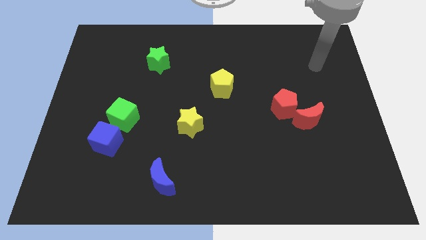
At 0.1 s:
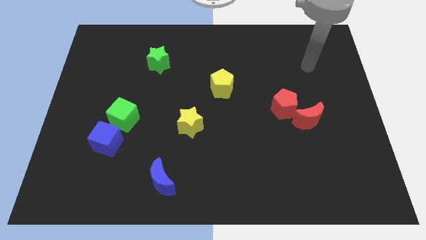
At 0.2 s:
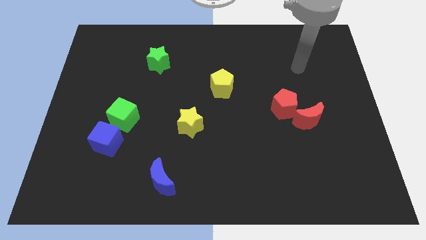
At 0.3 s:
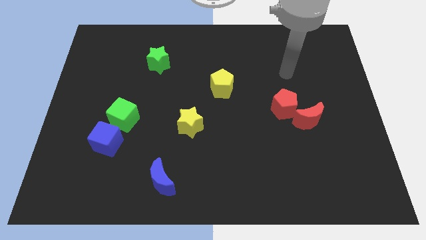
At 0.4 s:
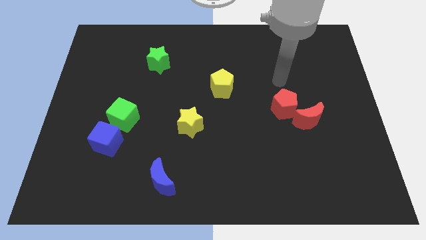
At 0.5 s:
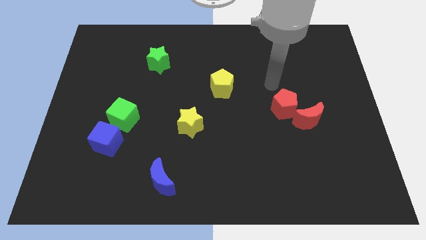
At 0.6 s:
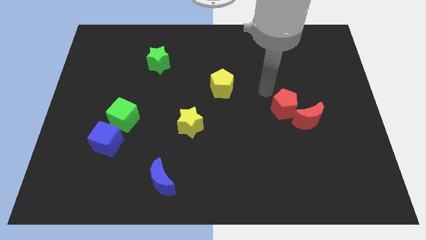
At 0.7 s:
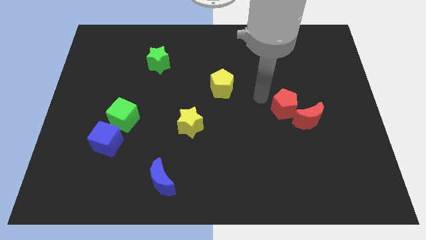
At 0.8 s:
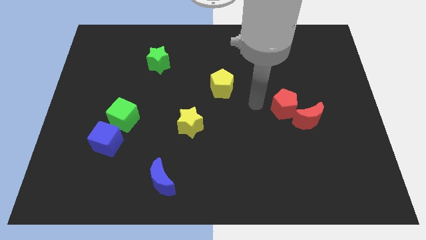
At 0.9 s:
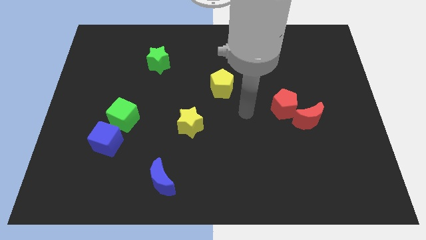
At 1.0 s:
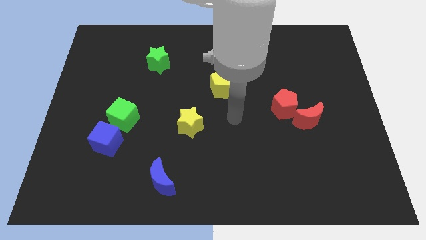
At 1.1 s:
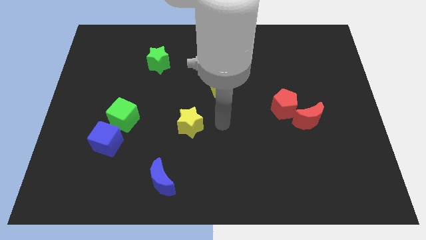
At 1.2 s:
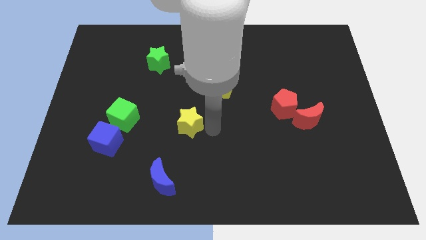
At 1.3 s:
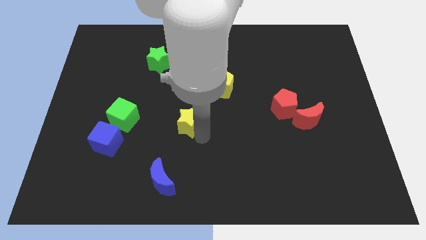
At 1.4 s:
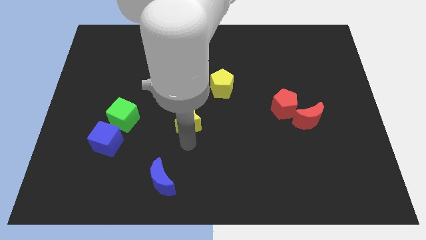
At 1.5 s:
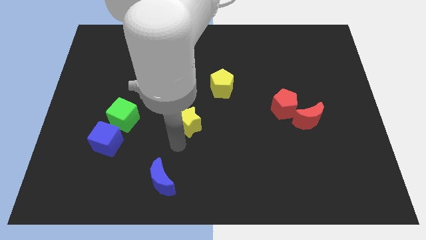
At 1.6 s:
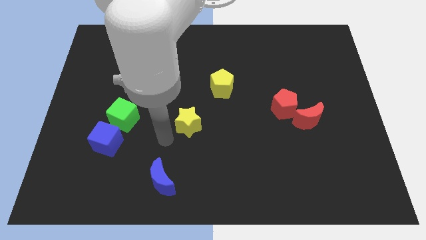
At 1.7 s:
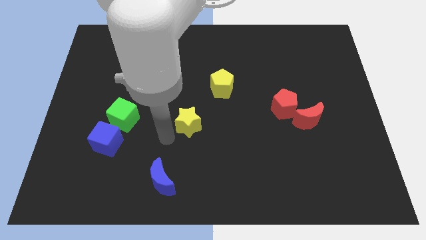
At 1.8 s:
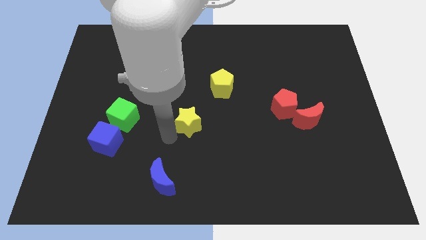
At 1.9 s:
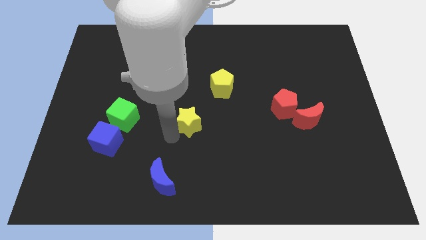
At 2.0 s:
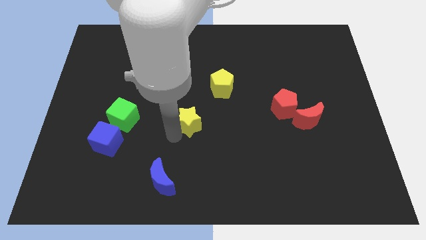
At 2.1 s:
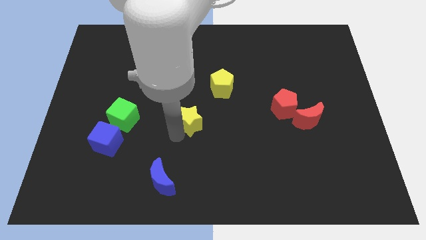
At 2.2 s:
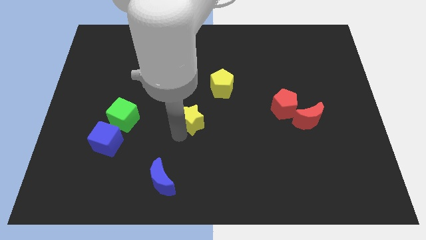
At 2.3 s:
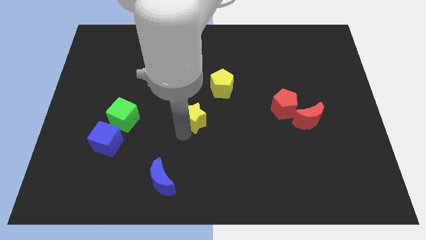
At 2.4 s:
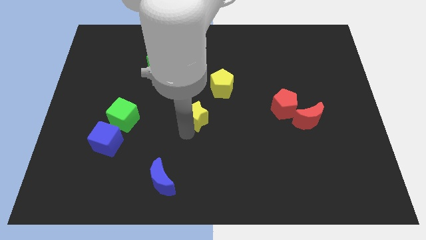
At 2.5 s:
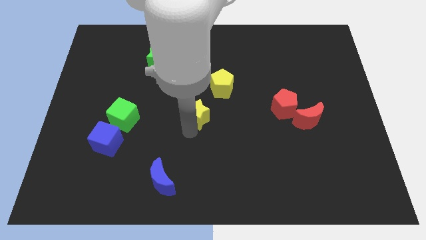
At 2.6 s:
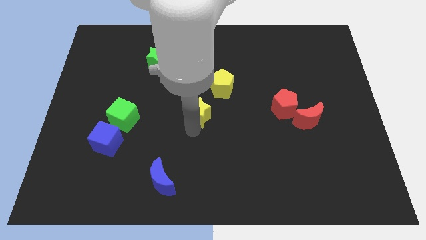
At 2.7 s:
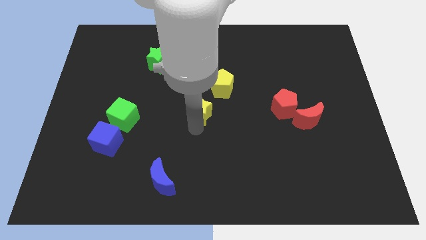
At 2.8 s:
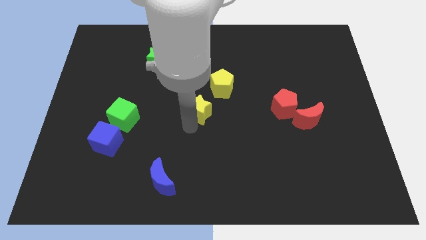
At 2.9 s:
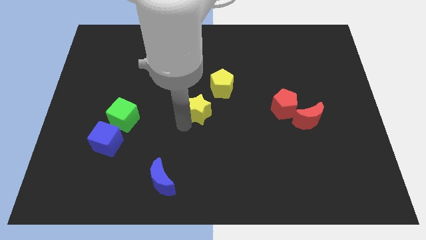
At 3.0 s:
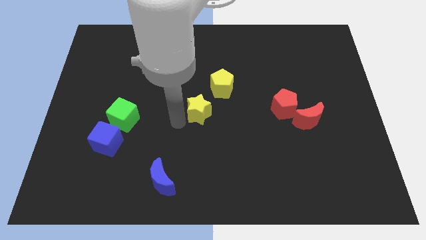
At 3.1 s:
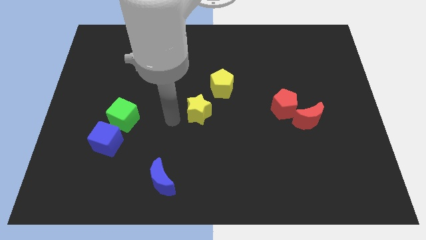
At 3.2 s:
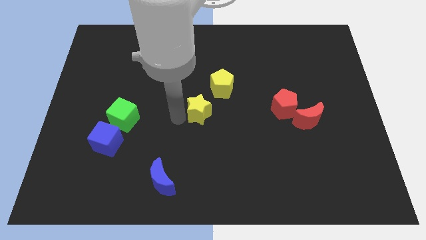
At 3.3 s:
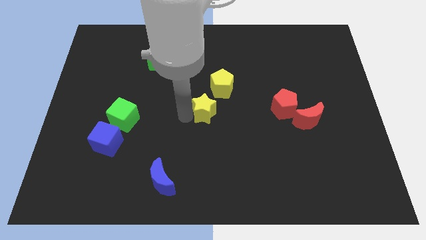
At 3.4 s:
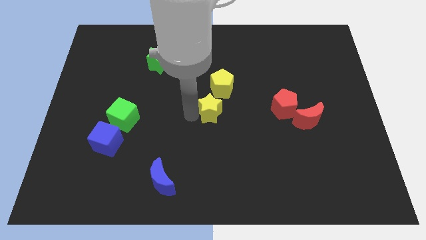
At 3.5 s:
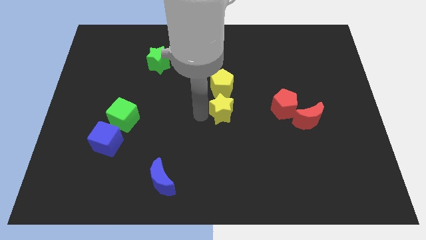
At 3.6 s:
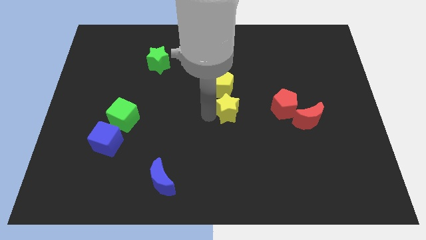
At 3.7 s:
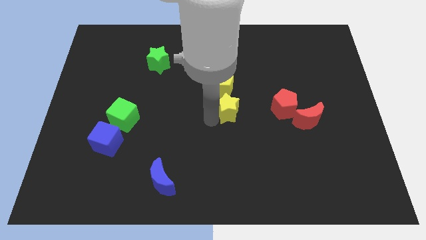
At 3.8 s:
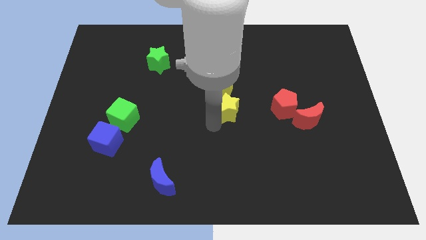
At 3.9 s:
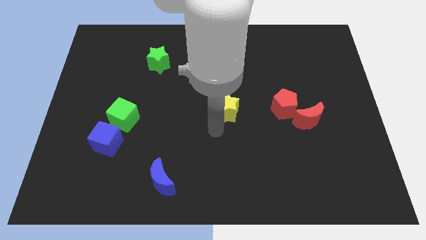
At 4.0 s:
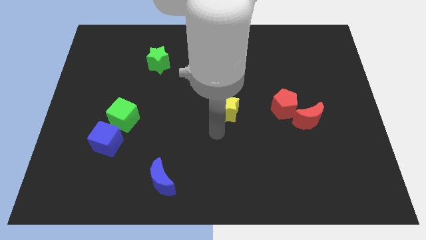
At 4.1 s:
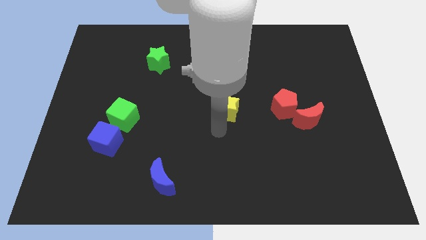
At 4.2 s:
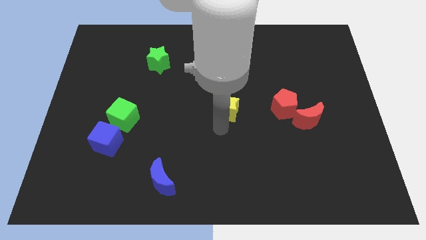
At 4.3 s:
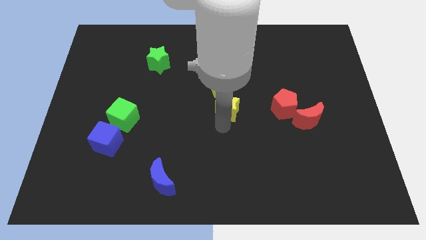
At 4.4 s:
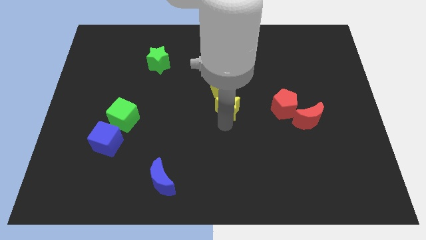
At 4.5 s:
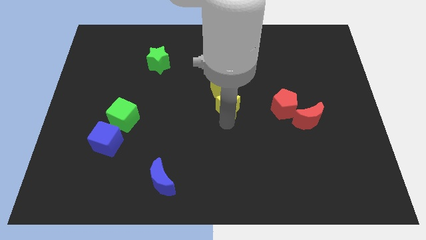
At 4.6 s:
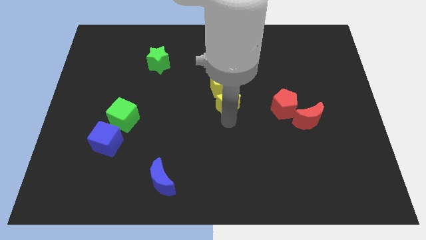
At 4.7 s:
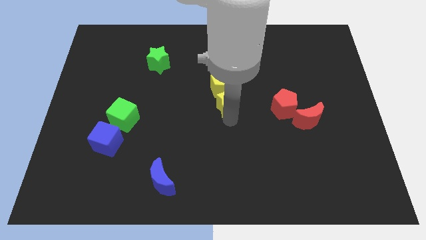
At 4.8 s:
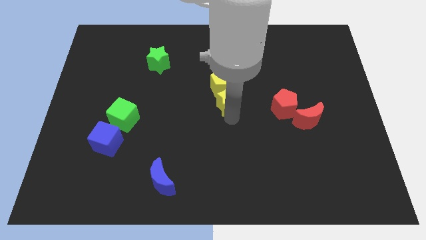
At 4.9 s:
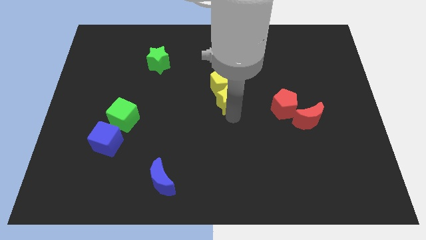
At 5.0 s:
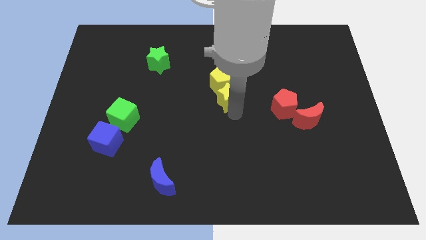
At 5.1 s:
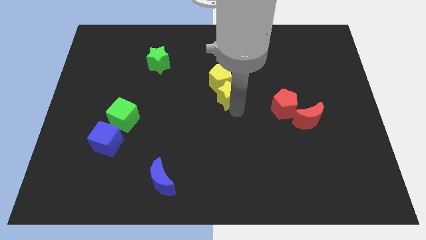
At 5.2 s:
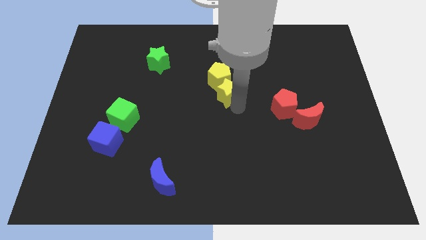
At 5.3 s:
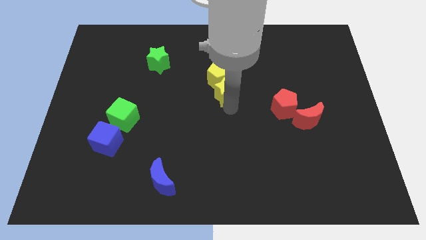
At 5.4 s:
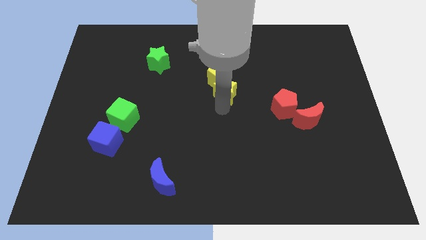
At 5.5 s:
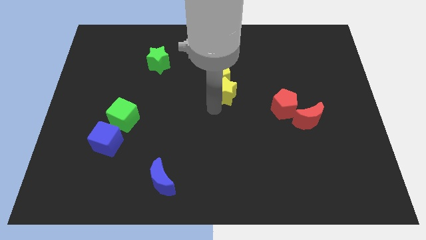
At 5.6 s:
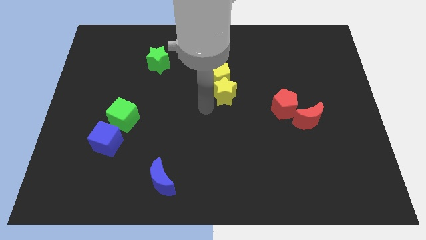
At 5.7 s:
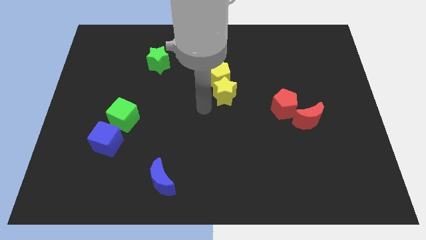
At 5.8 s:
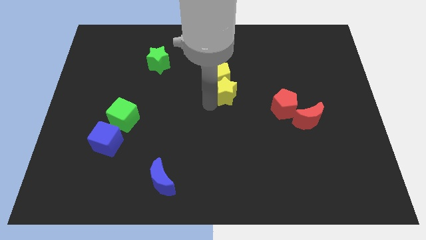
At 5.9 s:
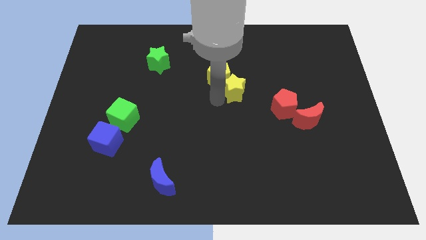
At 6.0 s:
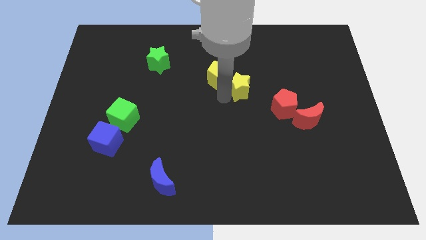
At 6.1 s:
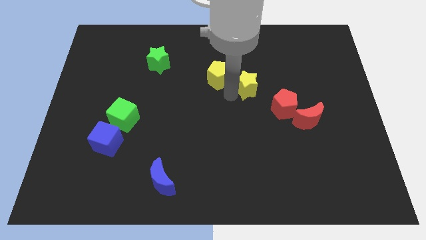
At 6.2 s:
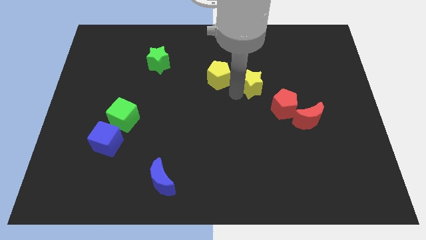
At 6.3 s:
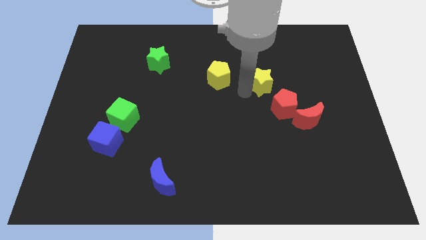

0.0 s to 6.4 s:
slide the yellow star upwards and right

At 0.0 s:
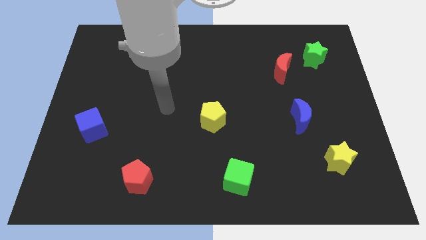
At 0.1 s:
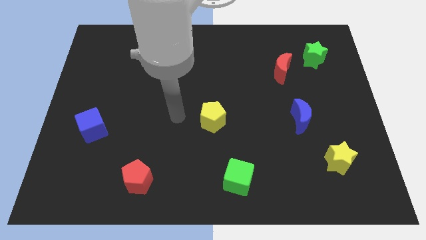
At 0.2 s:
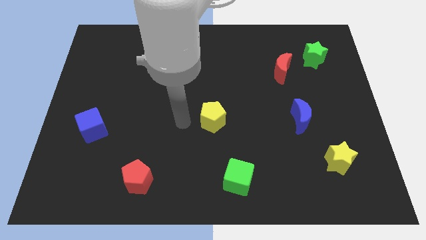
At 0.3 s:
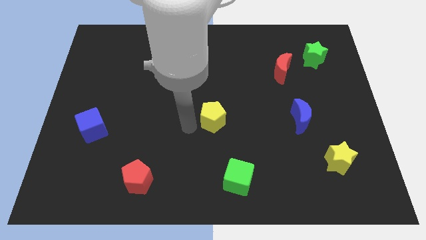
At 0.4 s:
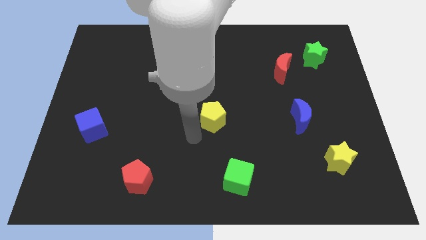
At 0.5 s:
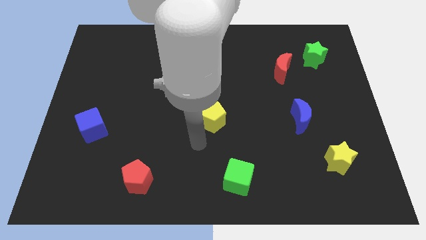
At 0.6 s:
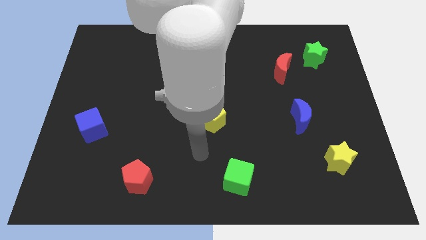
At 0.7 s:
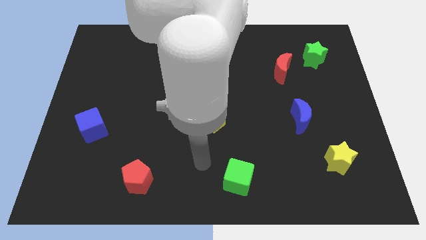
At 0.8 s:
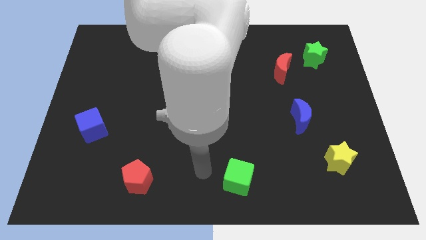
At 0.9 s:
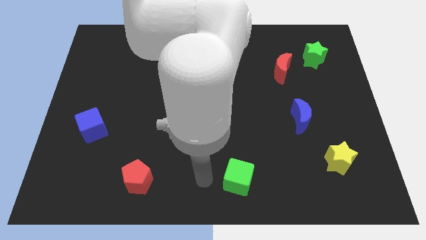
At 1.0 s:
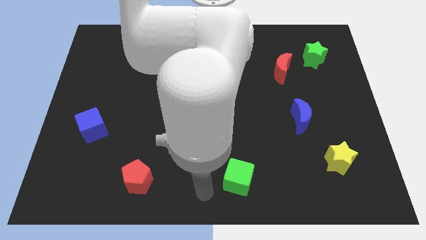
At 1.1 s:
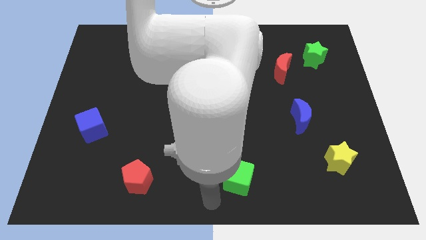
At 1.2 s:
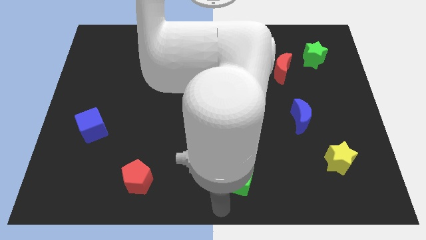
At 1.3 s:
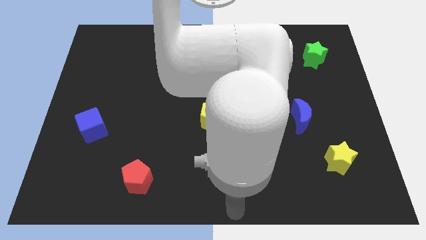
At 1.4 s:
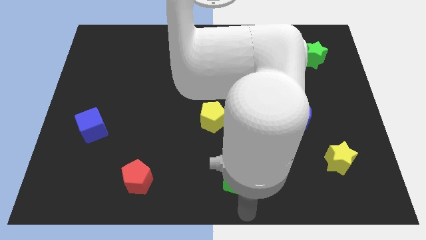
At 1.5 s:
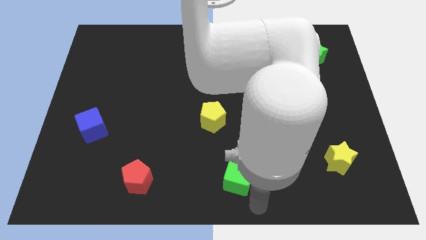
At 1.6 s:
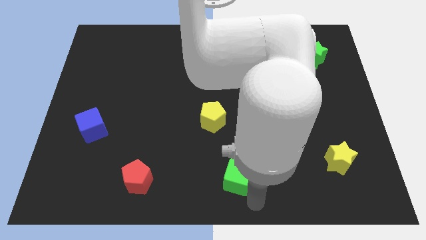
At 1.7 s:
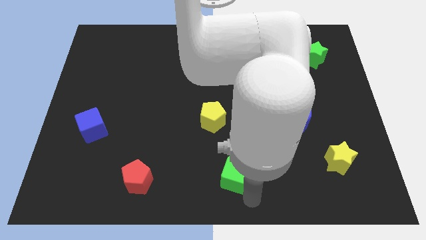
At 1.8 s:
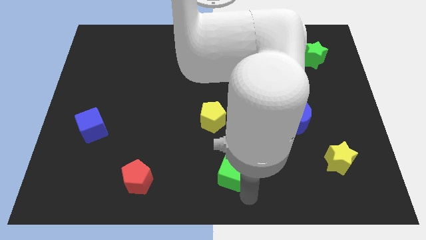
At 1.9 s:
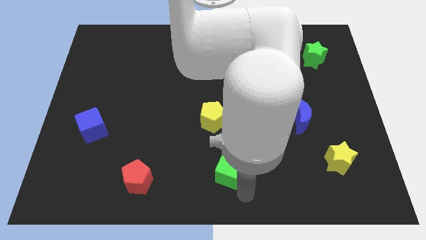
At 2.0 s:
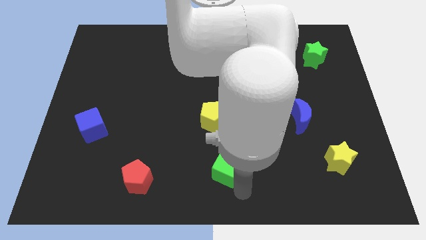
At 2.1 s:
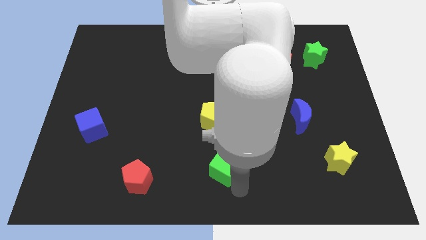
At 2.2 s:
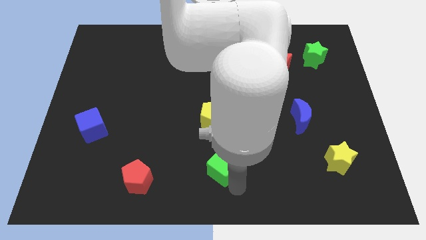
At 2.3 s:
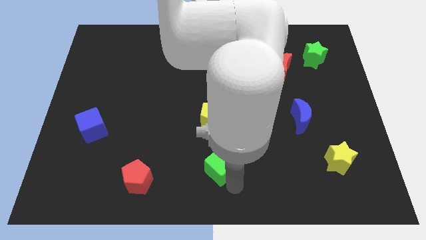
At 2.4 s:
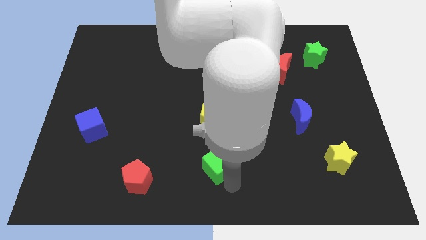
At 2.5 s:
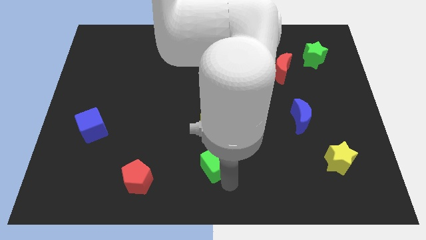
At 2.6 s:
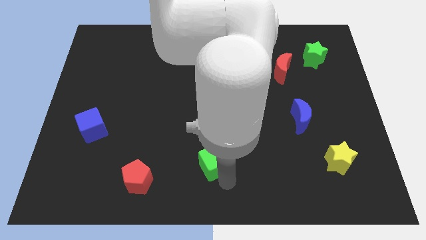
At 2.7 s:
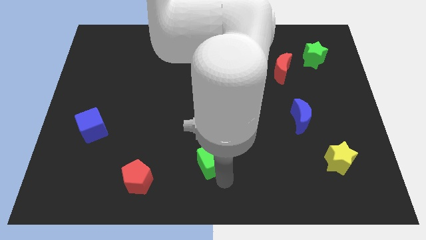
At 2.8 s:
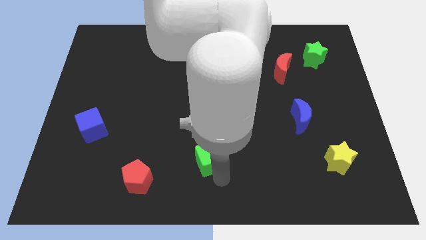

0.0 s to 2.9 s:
move the green cube upwards and left somewhat
